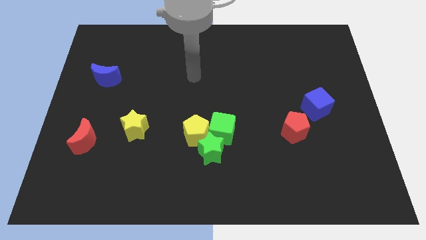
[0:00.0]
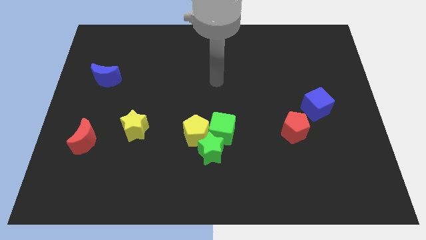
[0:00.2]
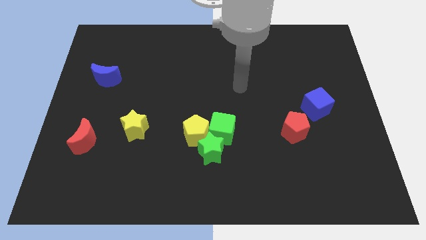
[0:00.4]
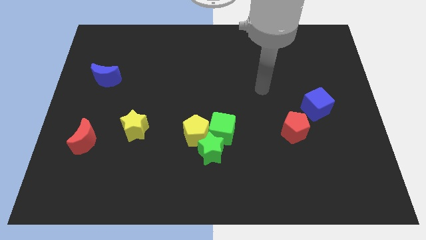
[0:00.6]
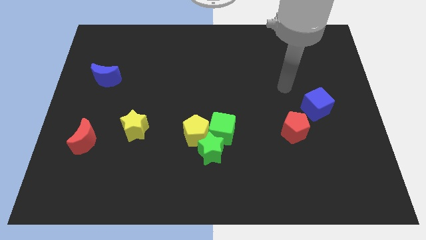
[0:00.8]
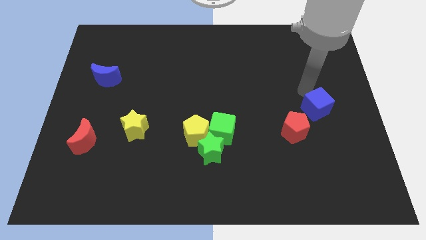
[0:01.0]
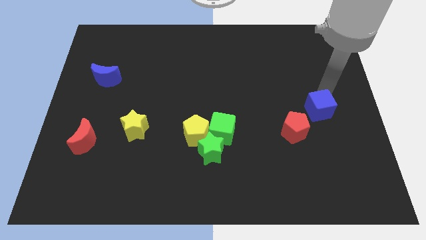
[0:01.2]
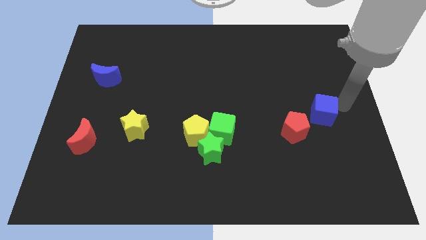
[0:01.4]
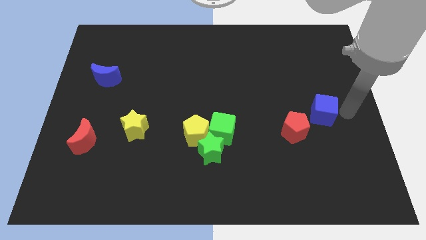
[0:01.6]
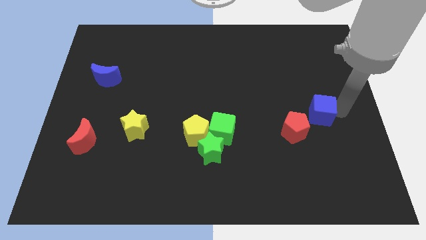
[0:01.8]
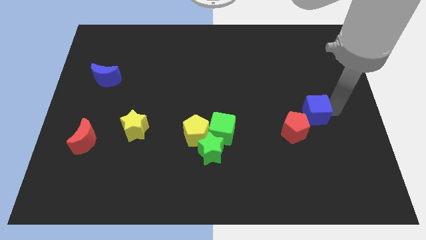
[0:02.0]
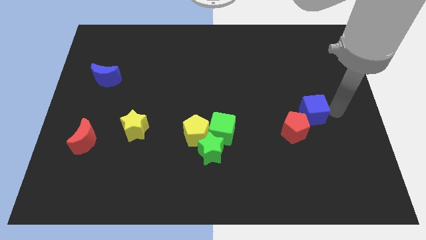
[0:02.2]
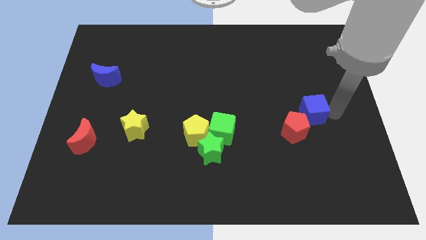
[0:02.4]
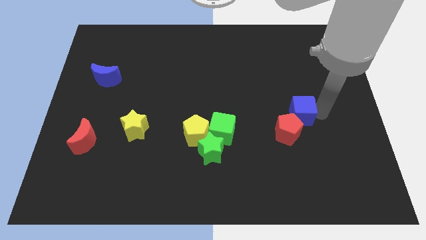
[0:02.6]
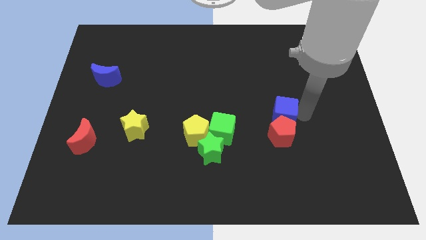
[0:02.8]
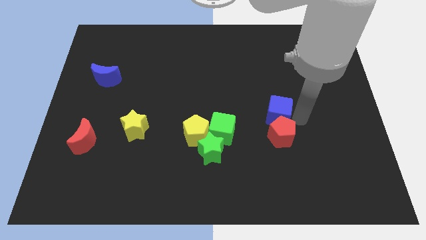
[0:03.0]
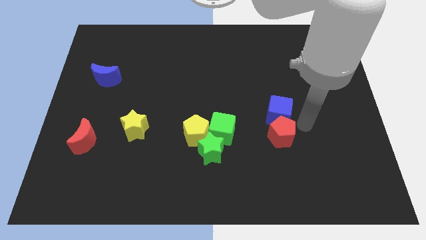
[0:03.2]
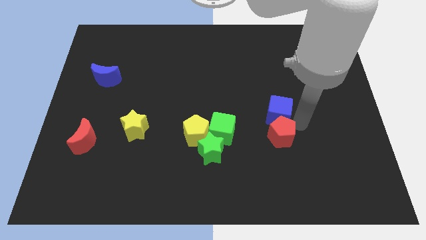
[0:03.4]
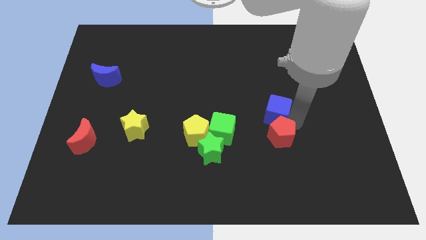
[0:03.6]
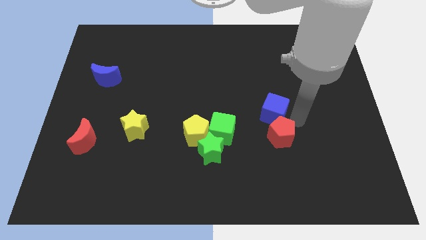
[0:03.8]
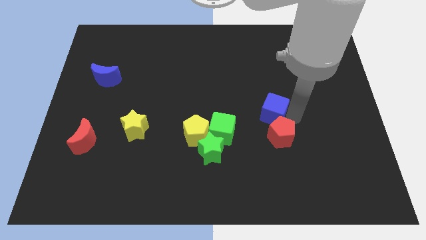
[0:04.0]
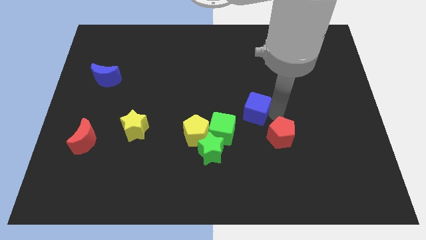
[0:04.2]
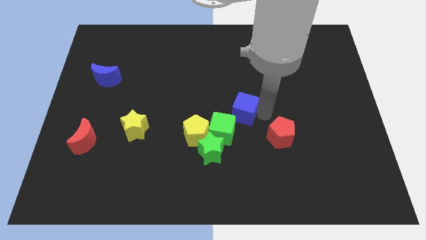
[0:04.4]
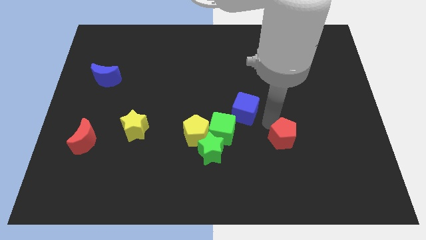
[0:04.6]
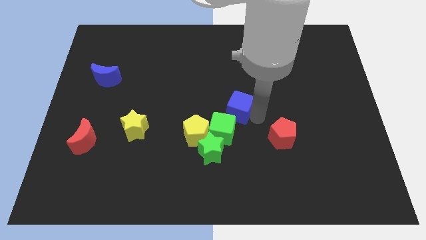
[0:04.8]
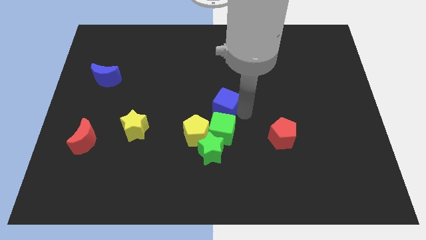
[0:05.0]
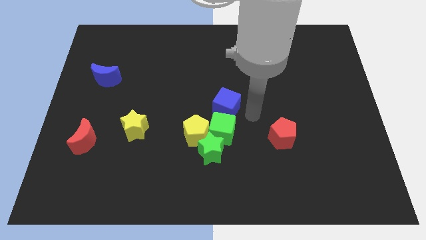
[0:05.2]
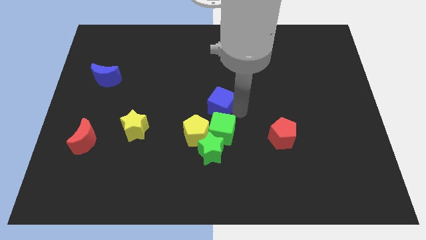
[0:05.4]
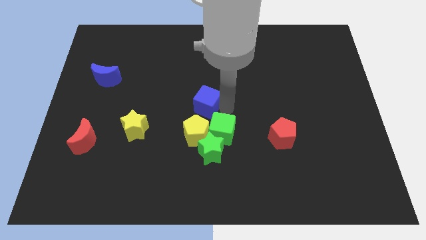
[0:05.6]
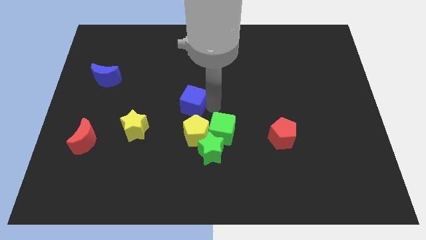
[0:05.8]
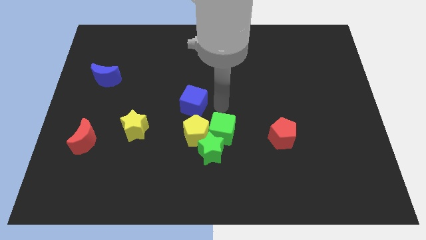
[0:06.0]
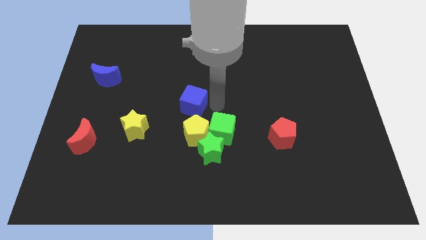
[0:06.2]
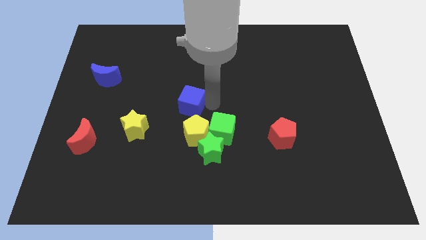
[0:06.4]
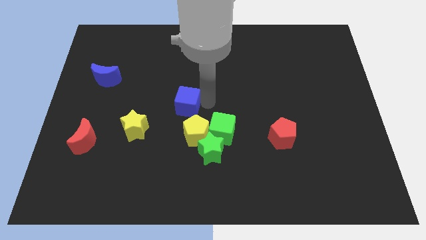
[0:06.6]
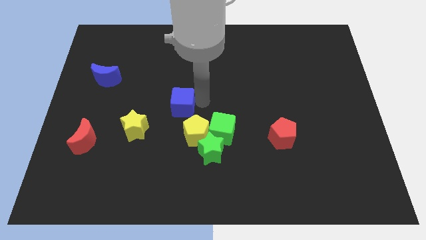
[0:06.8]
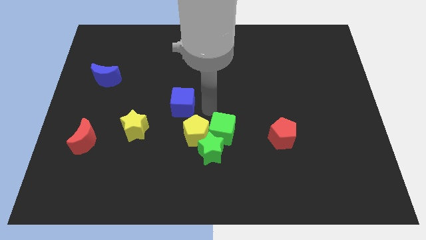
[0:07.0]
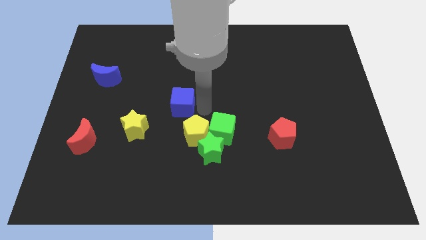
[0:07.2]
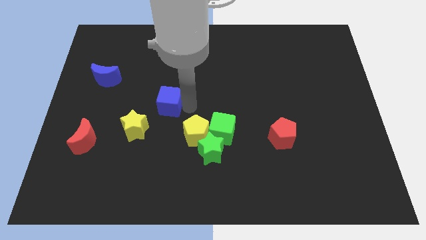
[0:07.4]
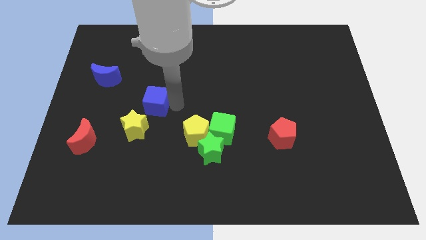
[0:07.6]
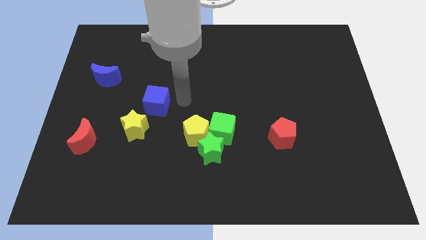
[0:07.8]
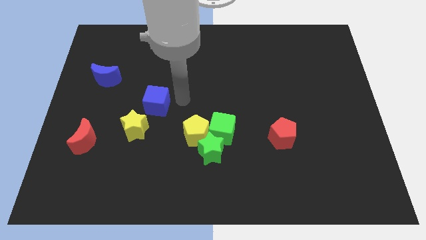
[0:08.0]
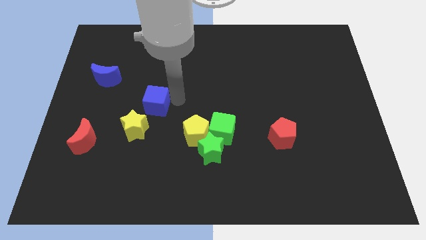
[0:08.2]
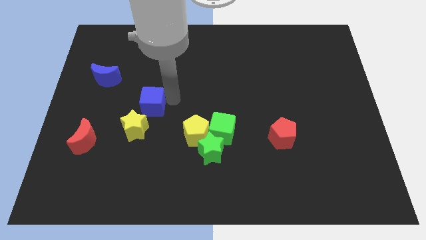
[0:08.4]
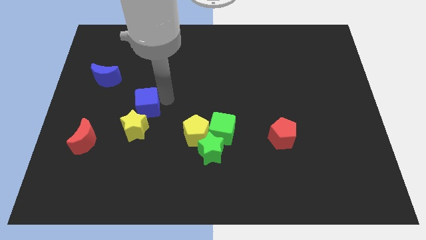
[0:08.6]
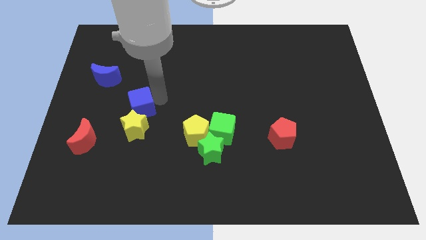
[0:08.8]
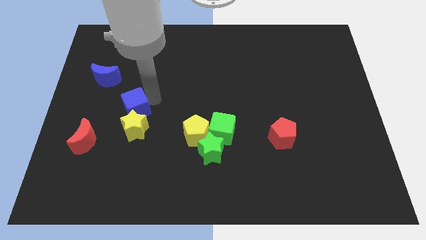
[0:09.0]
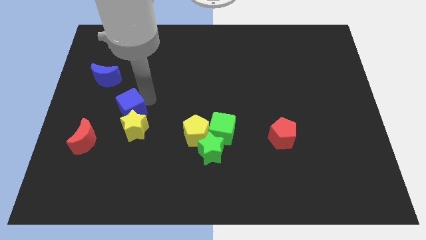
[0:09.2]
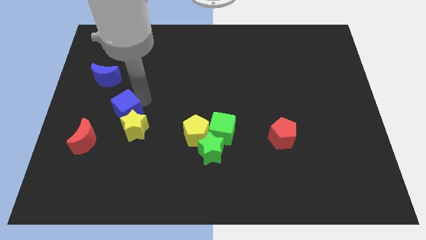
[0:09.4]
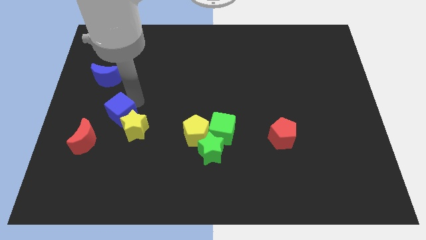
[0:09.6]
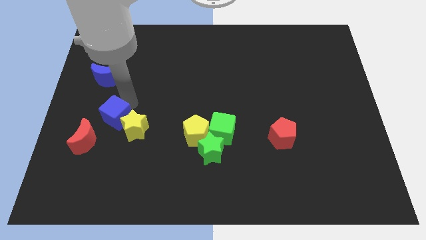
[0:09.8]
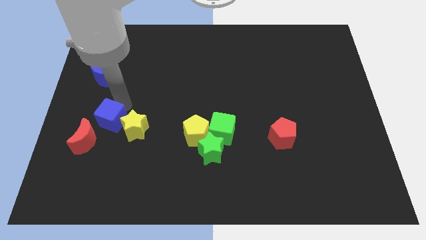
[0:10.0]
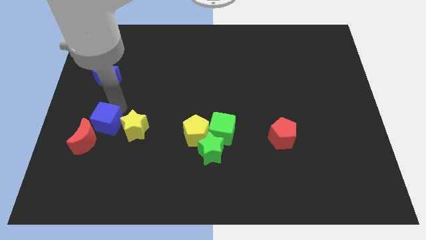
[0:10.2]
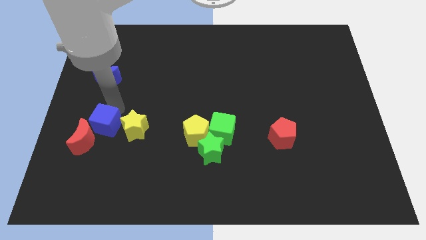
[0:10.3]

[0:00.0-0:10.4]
put the blue cube close to the red moon

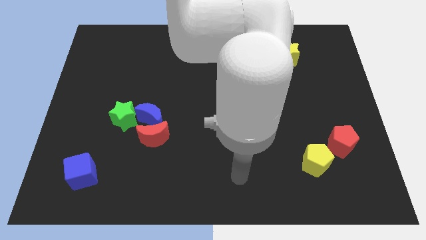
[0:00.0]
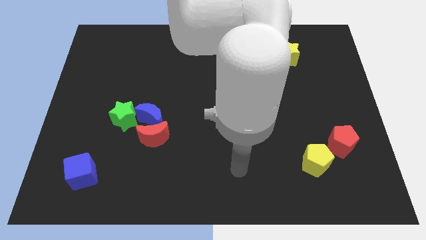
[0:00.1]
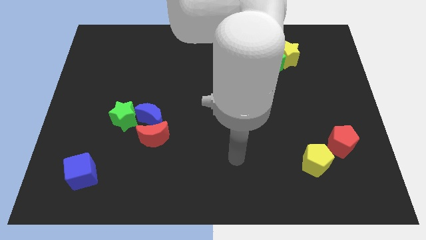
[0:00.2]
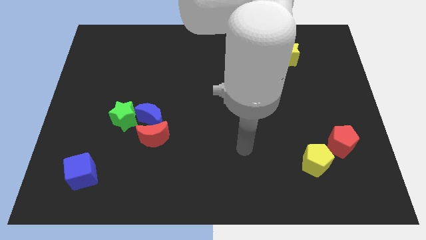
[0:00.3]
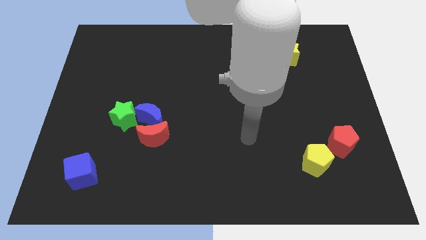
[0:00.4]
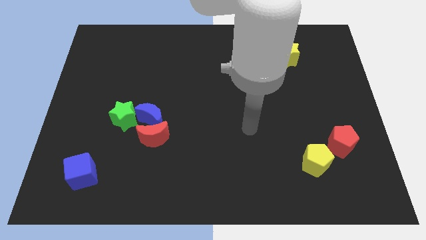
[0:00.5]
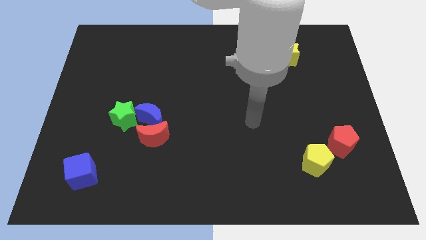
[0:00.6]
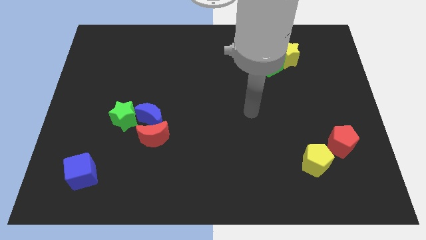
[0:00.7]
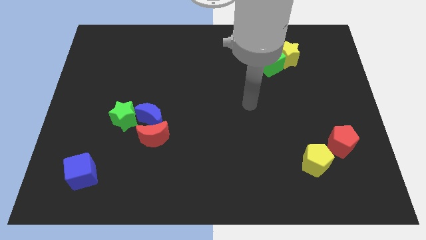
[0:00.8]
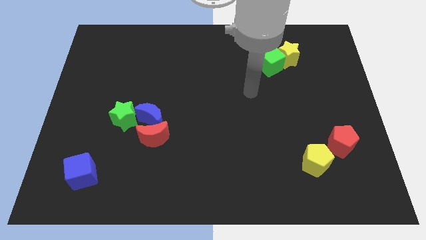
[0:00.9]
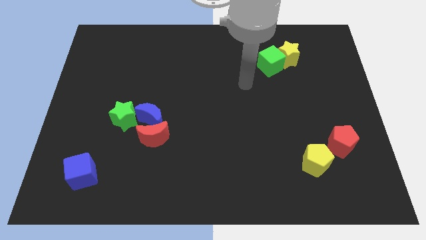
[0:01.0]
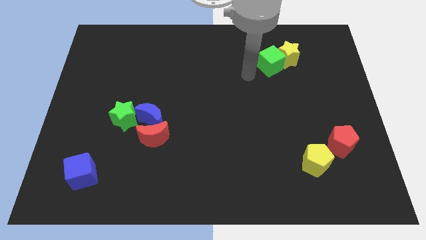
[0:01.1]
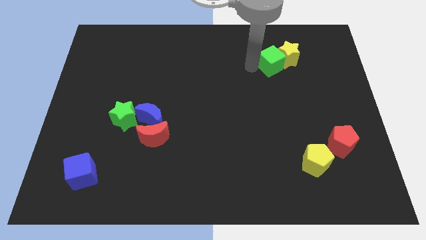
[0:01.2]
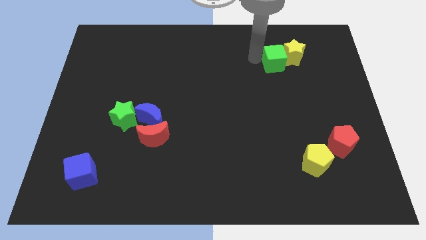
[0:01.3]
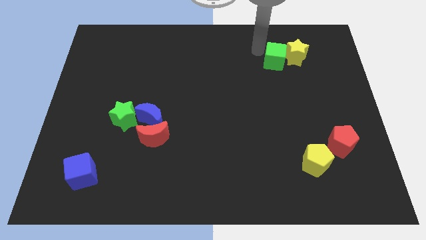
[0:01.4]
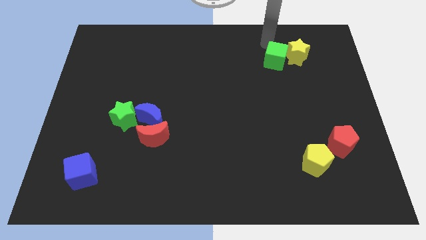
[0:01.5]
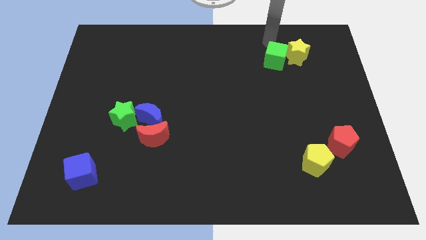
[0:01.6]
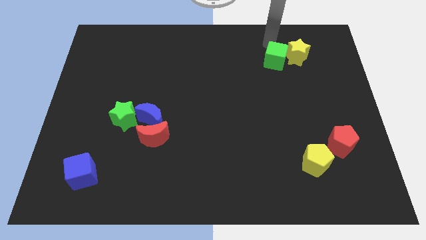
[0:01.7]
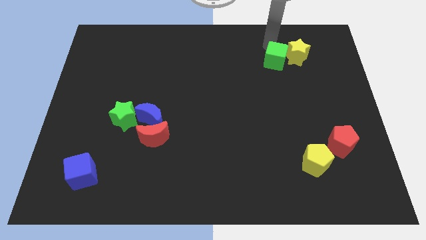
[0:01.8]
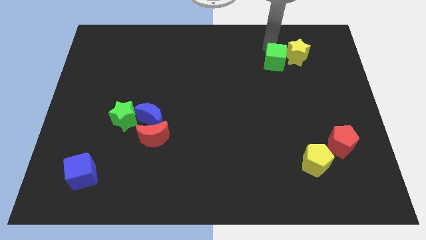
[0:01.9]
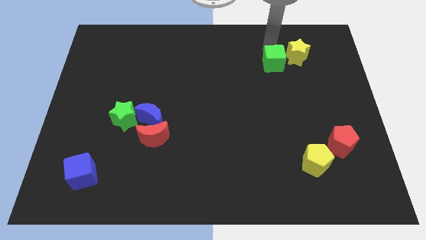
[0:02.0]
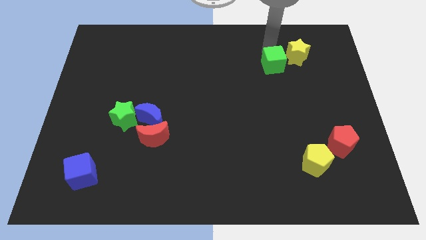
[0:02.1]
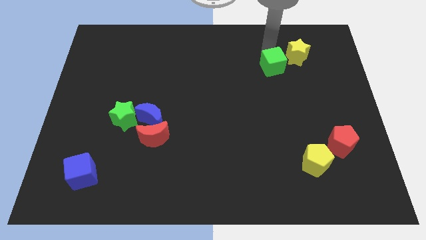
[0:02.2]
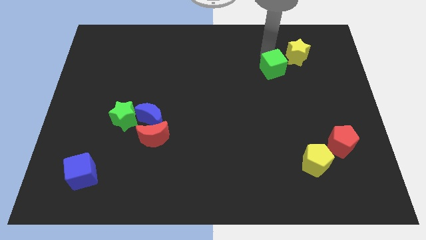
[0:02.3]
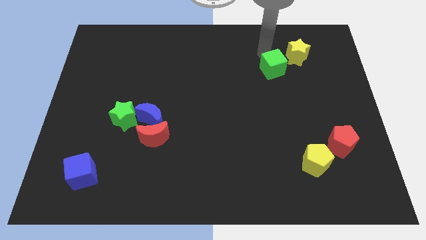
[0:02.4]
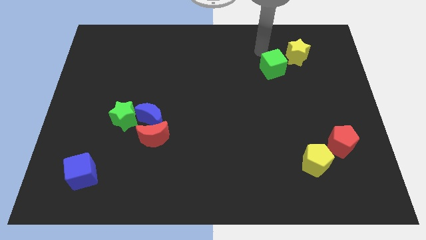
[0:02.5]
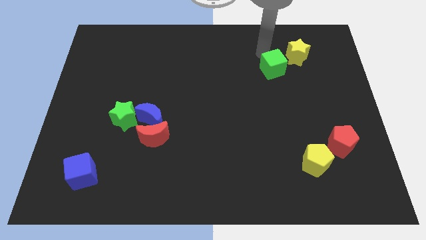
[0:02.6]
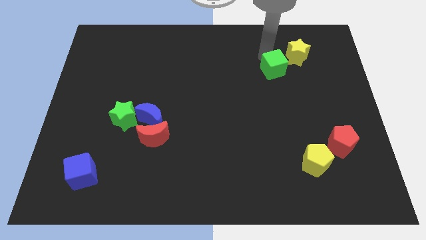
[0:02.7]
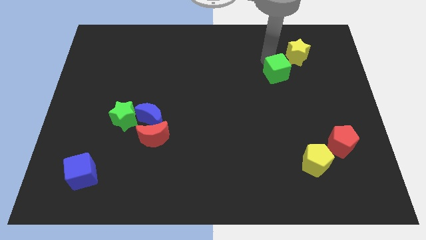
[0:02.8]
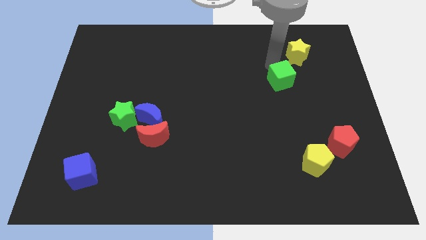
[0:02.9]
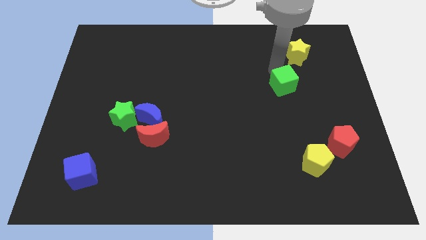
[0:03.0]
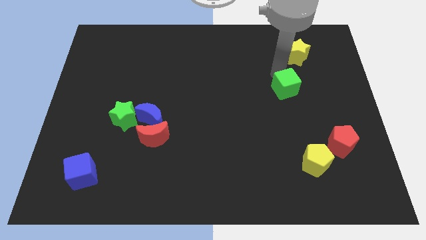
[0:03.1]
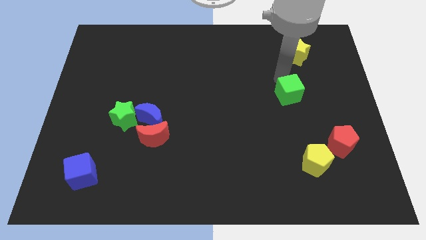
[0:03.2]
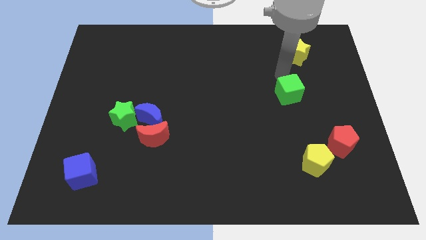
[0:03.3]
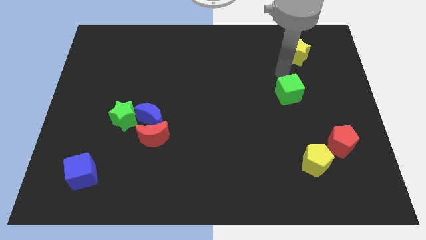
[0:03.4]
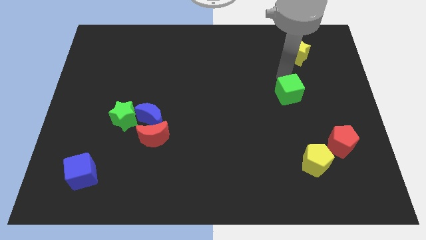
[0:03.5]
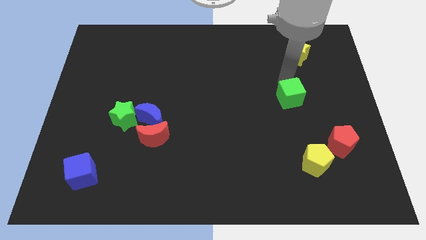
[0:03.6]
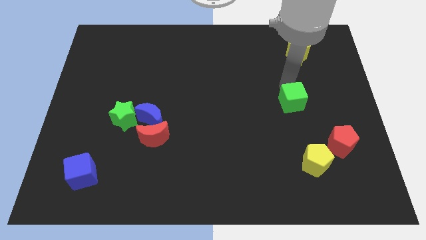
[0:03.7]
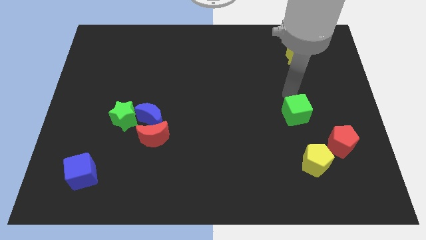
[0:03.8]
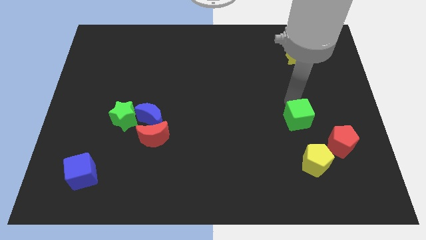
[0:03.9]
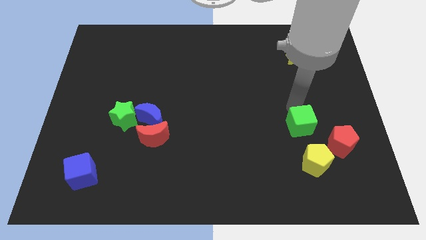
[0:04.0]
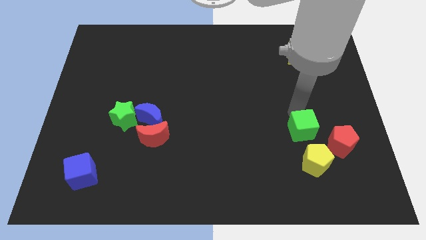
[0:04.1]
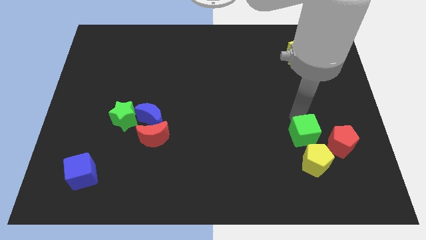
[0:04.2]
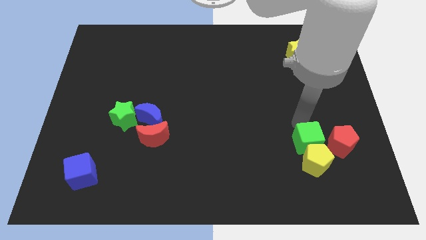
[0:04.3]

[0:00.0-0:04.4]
slide the green cube close to the yellow pentagon
